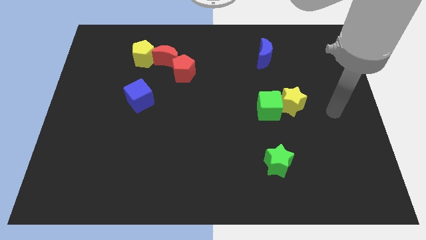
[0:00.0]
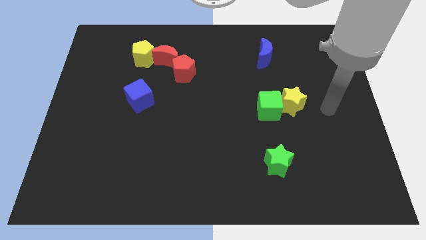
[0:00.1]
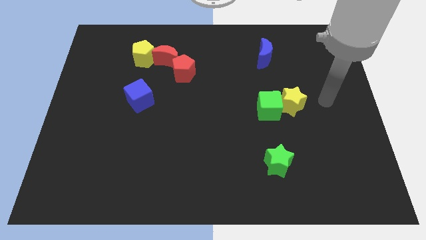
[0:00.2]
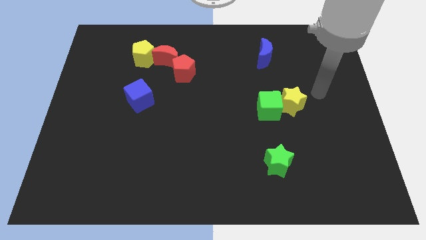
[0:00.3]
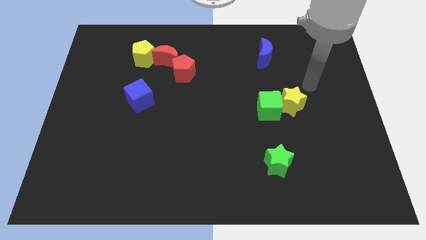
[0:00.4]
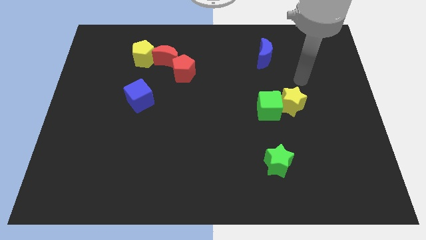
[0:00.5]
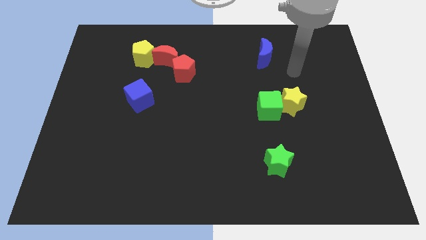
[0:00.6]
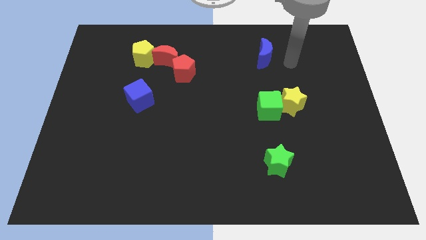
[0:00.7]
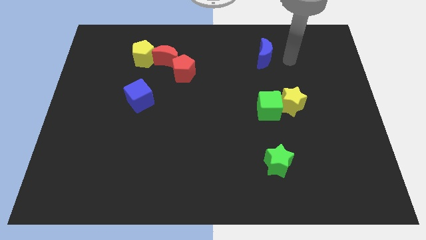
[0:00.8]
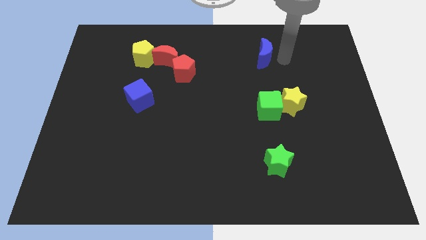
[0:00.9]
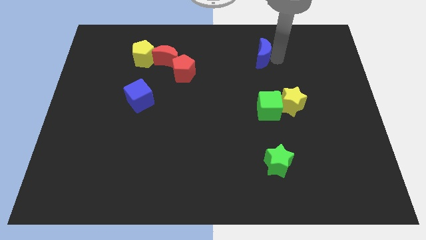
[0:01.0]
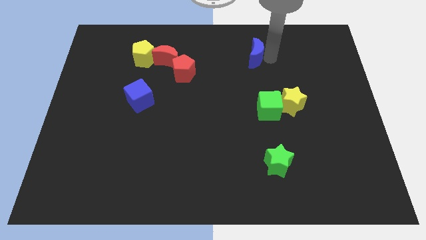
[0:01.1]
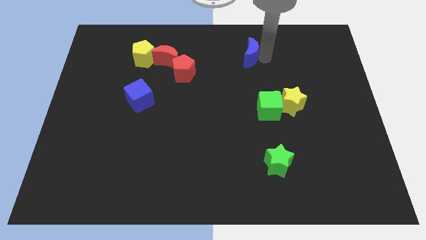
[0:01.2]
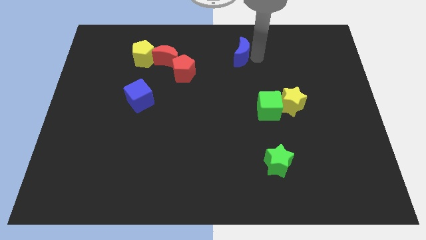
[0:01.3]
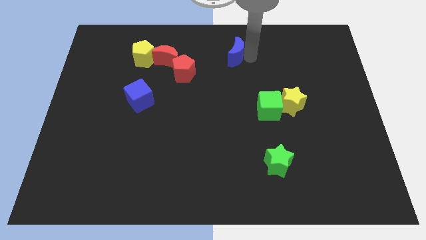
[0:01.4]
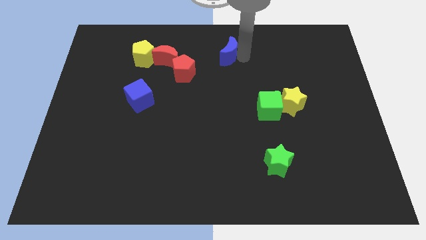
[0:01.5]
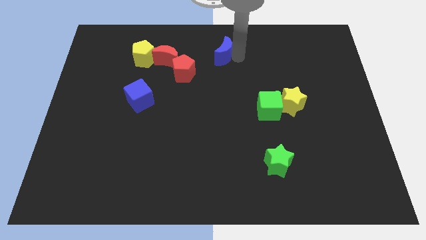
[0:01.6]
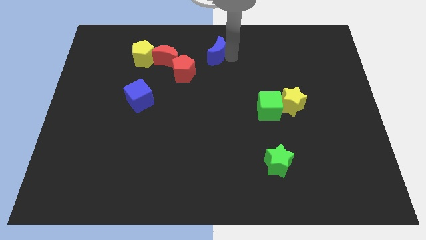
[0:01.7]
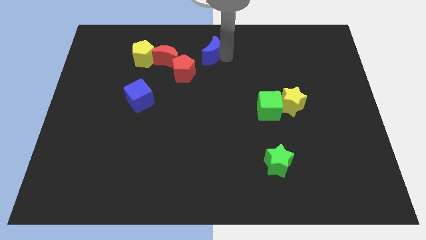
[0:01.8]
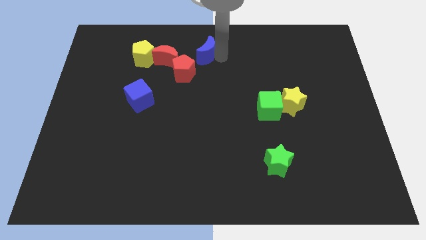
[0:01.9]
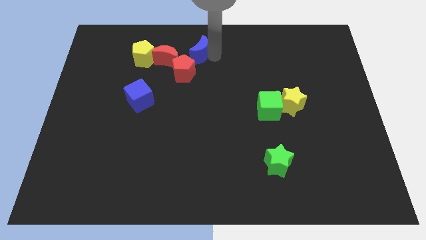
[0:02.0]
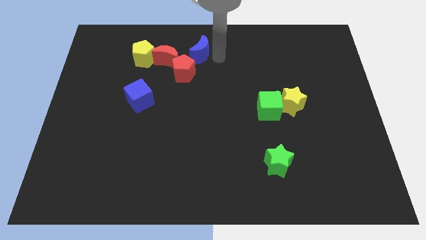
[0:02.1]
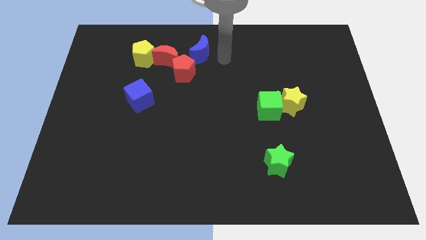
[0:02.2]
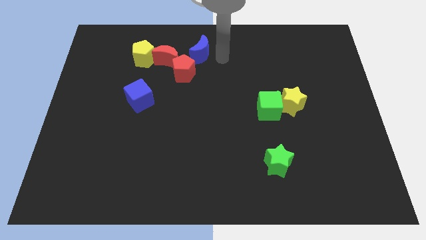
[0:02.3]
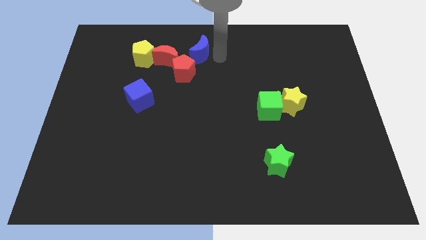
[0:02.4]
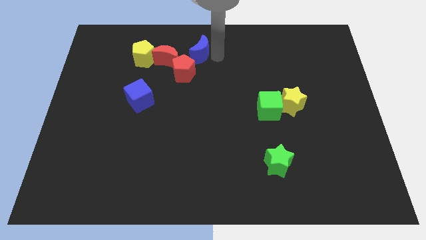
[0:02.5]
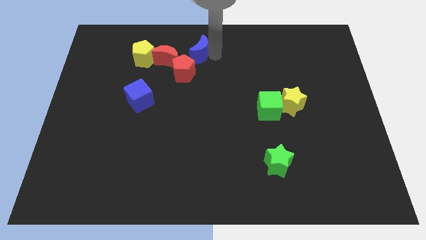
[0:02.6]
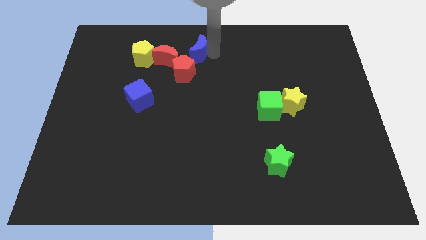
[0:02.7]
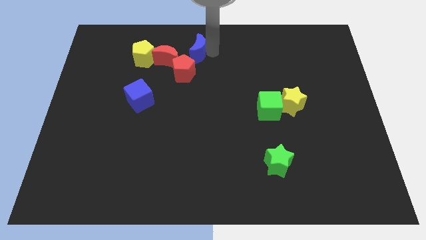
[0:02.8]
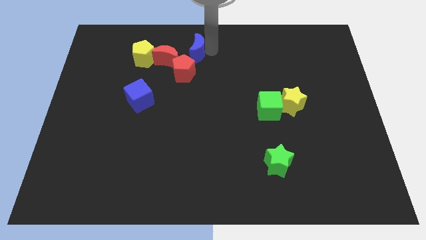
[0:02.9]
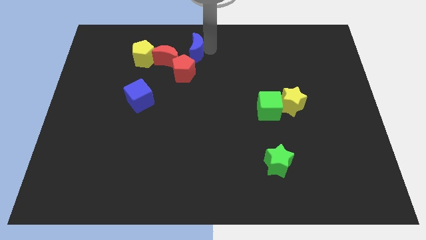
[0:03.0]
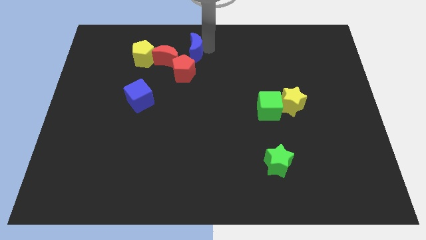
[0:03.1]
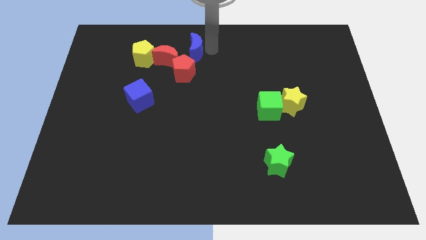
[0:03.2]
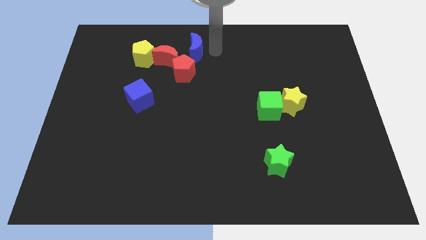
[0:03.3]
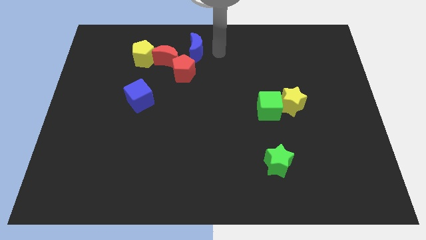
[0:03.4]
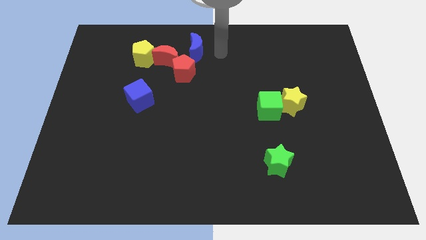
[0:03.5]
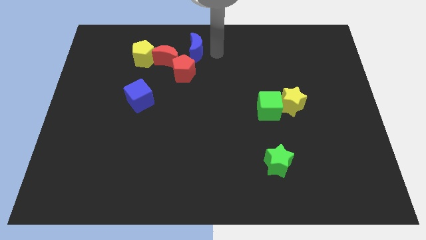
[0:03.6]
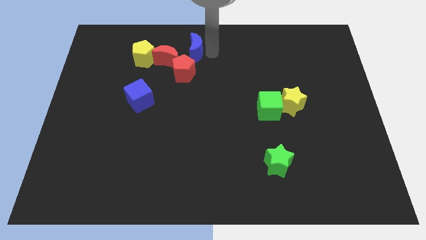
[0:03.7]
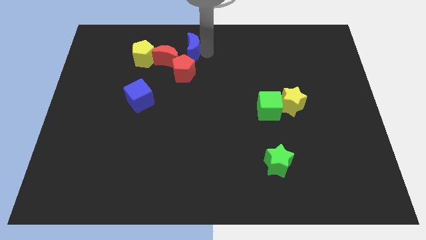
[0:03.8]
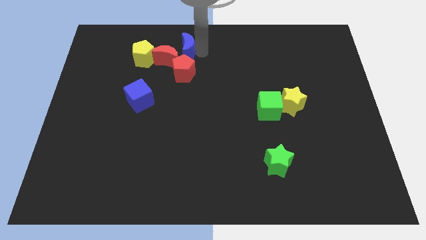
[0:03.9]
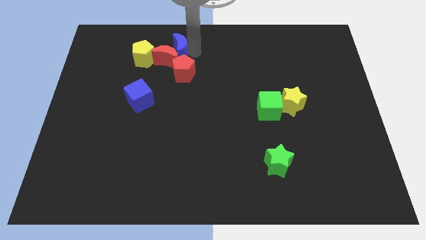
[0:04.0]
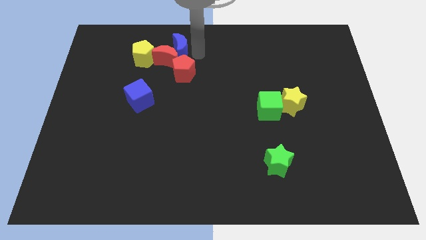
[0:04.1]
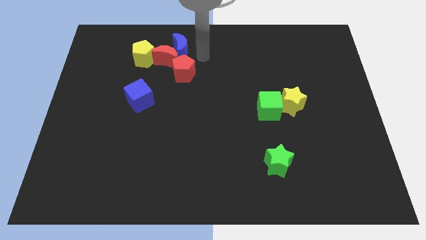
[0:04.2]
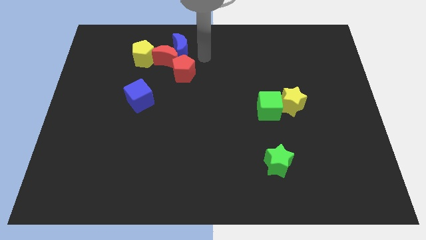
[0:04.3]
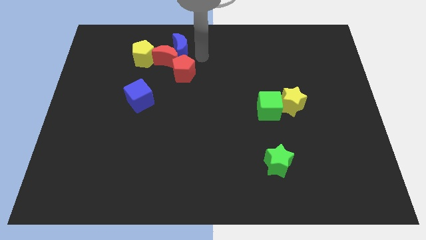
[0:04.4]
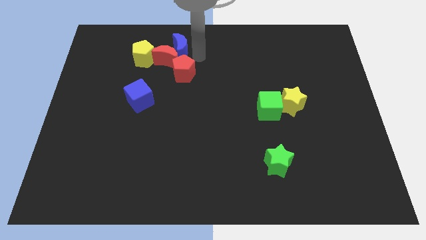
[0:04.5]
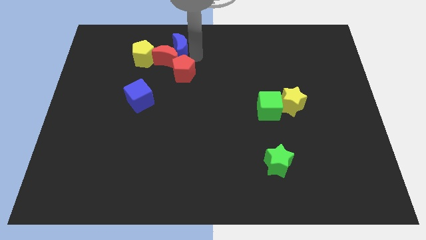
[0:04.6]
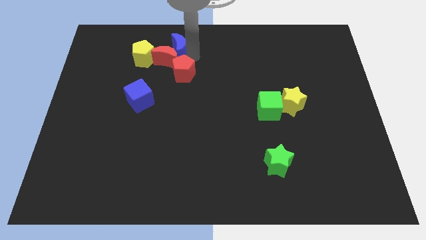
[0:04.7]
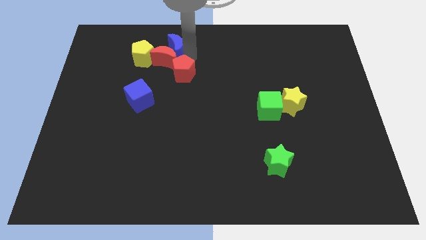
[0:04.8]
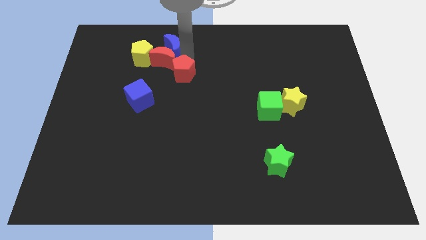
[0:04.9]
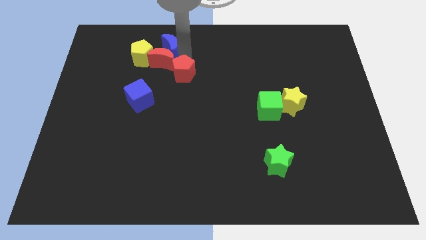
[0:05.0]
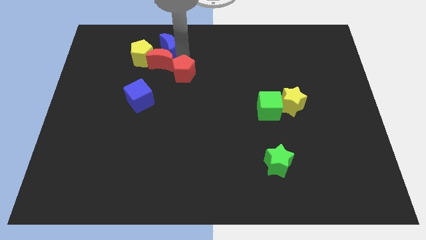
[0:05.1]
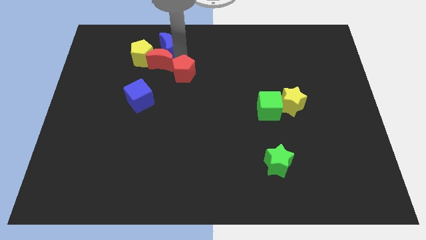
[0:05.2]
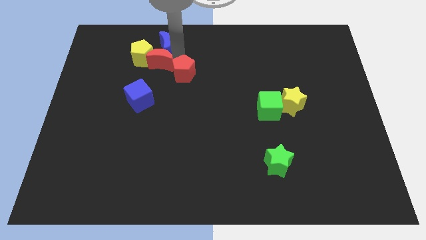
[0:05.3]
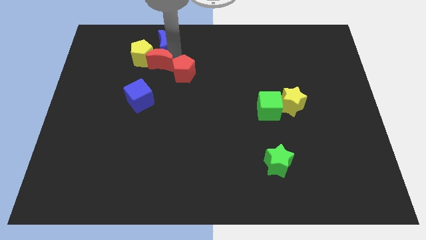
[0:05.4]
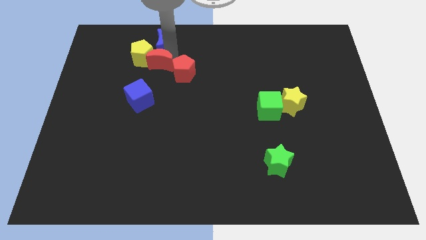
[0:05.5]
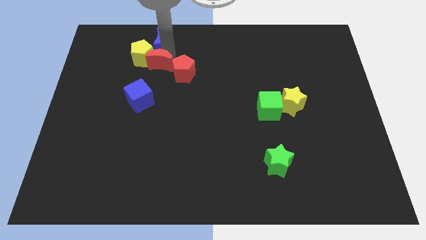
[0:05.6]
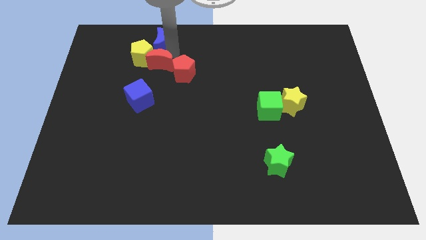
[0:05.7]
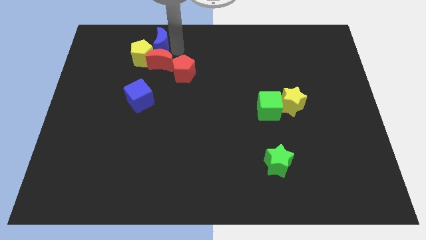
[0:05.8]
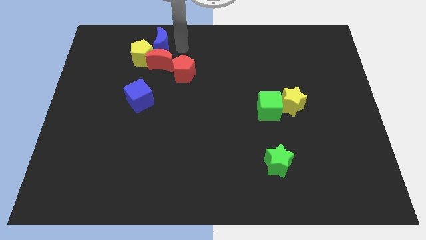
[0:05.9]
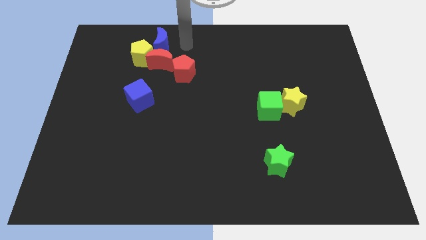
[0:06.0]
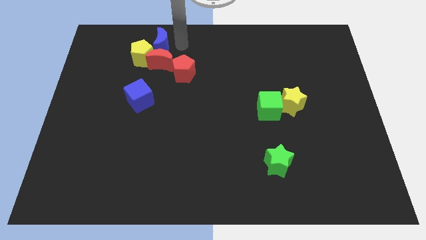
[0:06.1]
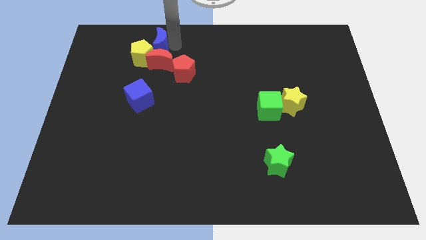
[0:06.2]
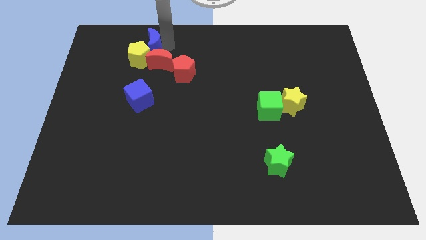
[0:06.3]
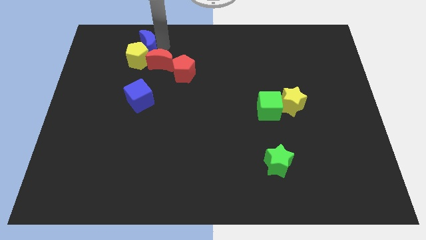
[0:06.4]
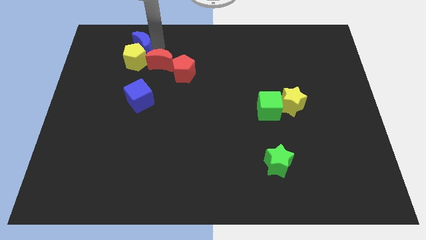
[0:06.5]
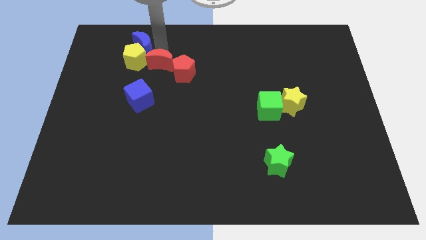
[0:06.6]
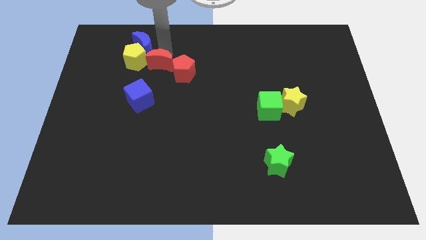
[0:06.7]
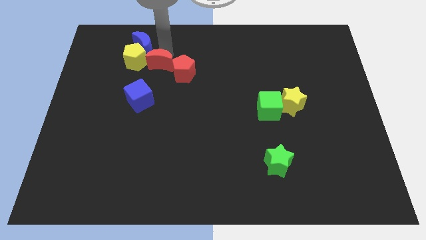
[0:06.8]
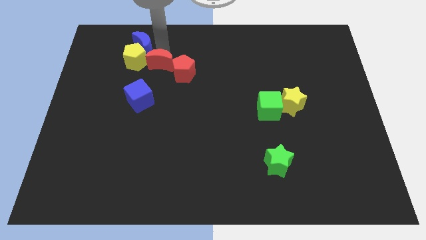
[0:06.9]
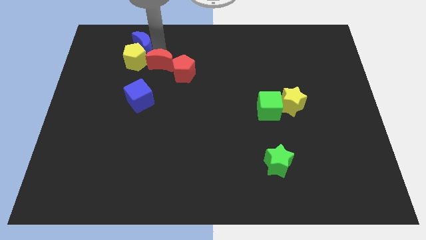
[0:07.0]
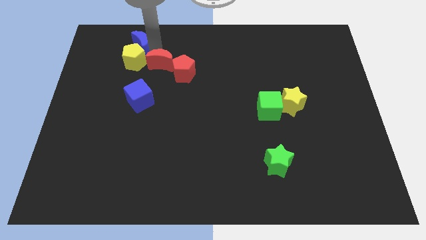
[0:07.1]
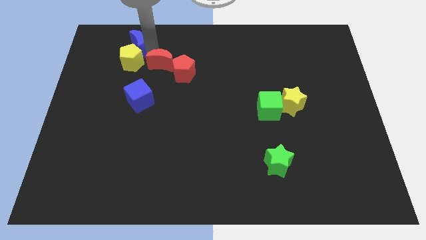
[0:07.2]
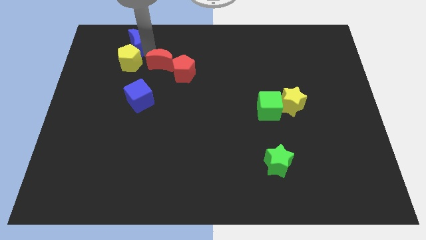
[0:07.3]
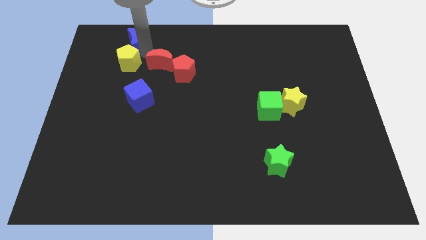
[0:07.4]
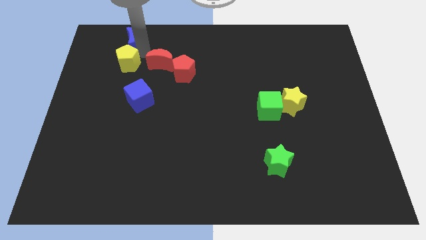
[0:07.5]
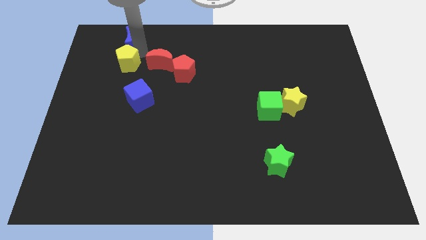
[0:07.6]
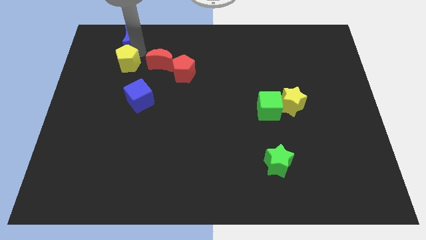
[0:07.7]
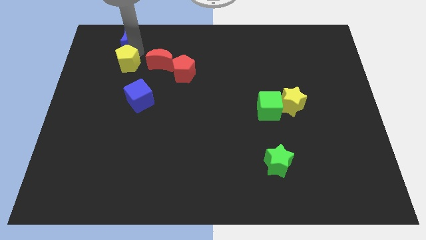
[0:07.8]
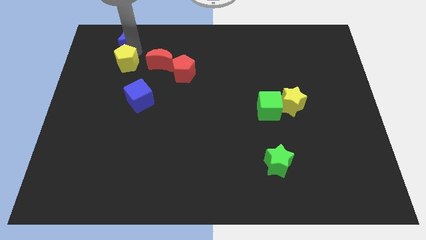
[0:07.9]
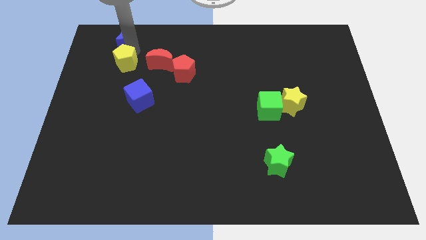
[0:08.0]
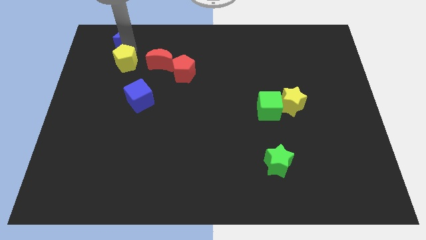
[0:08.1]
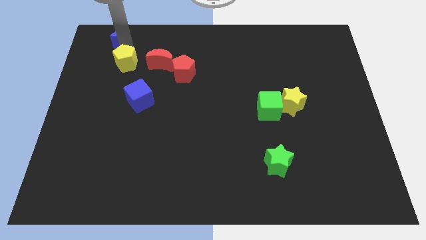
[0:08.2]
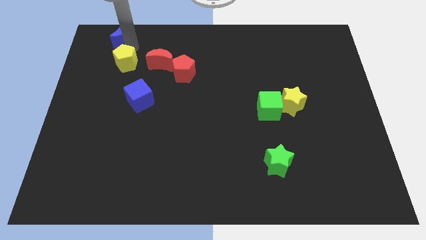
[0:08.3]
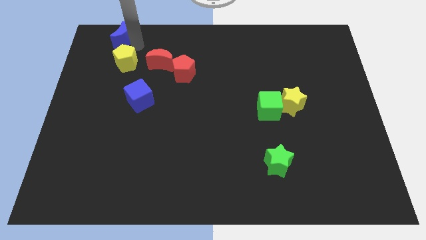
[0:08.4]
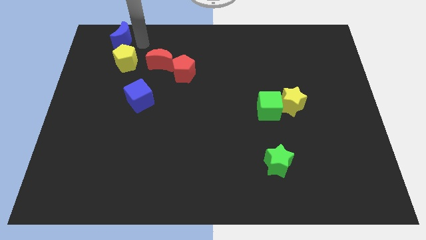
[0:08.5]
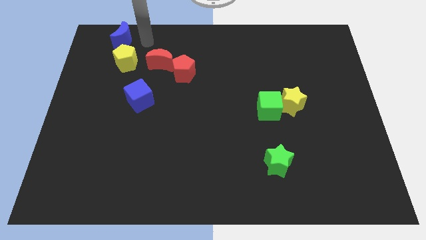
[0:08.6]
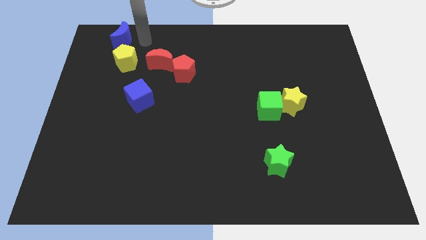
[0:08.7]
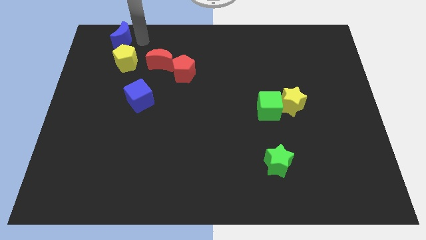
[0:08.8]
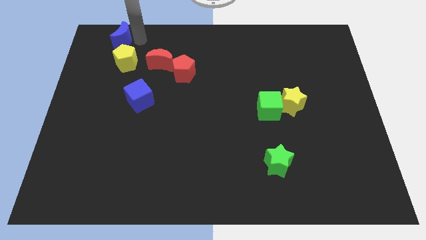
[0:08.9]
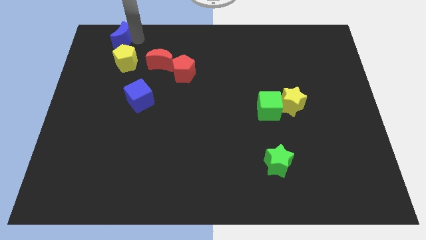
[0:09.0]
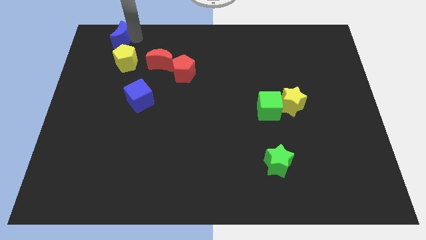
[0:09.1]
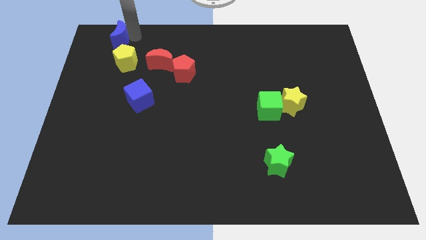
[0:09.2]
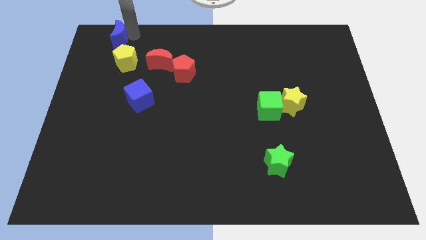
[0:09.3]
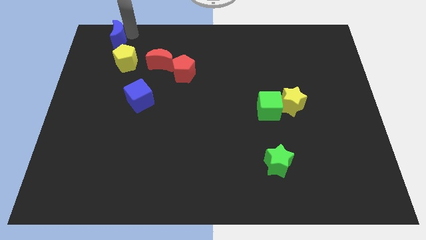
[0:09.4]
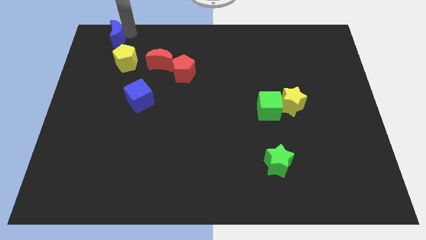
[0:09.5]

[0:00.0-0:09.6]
slide the blue moon to the top left corner
